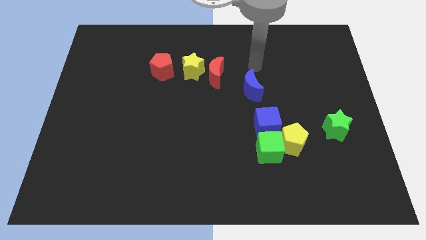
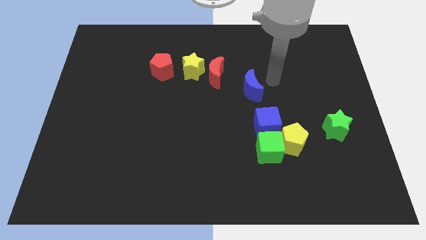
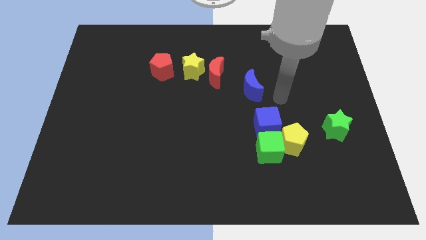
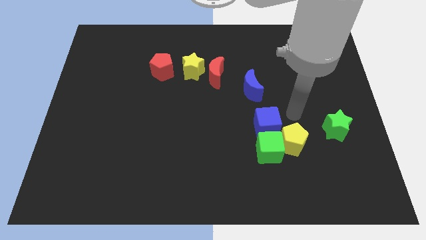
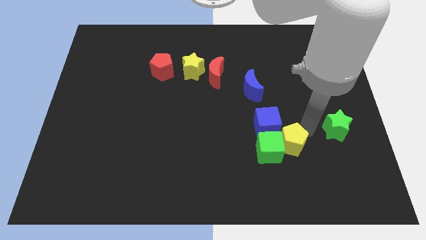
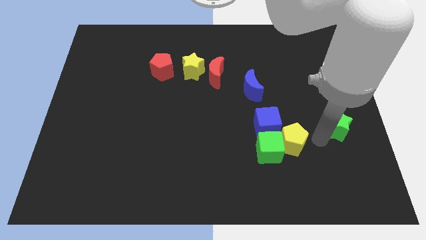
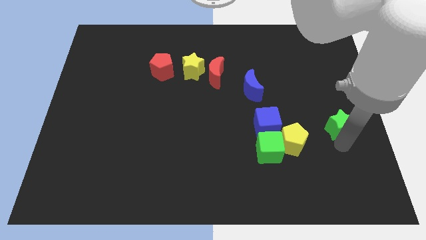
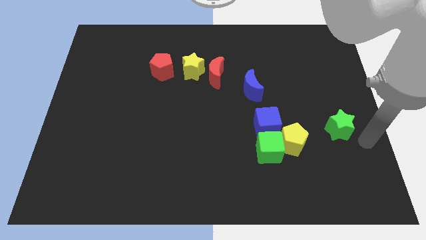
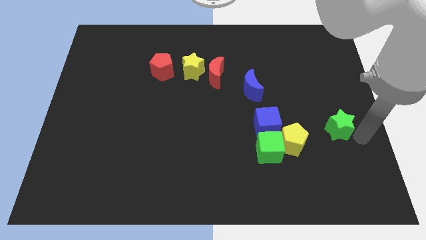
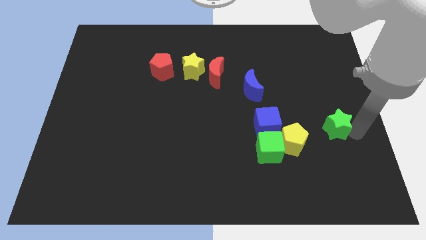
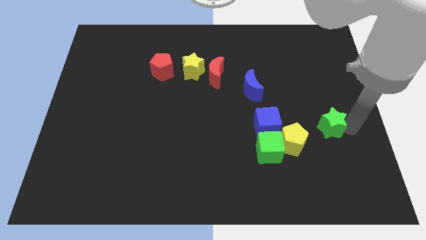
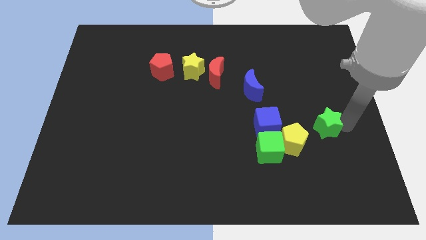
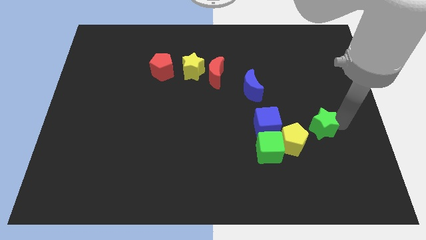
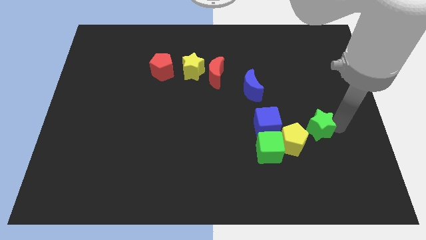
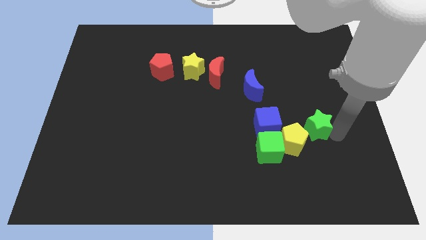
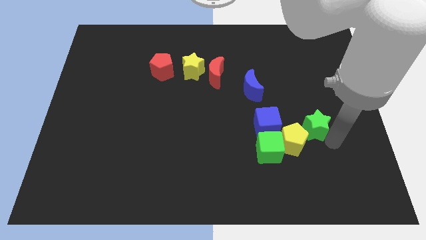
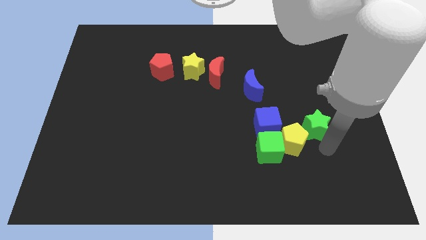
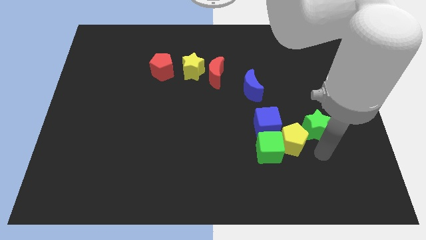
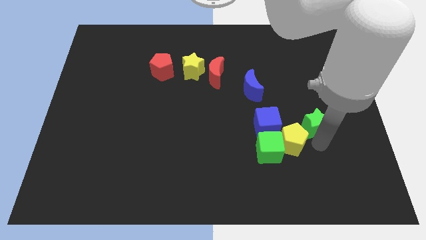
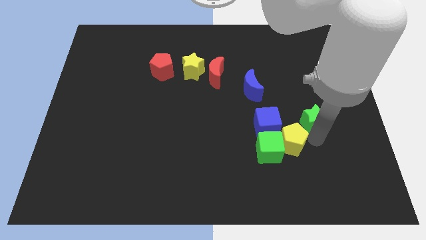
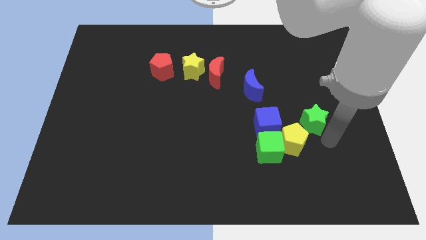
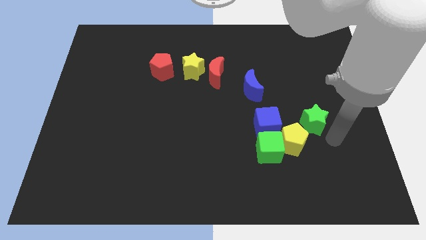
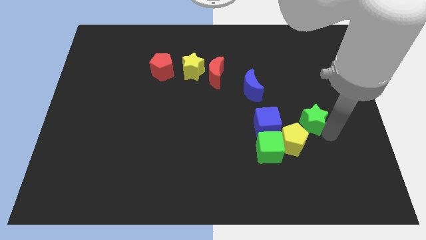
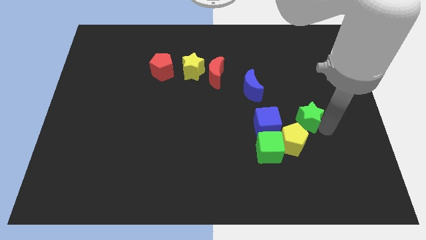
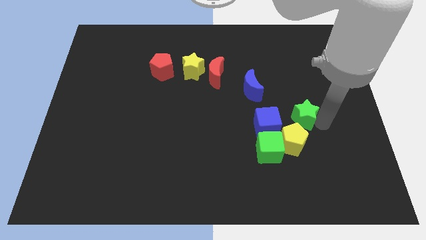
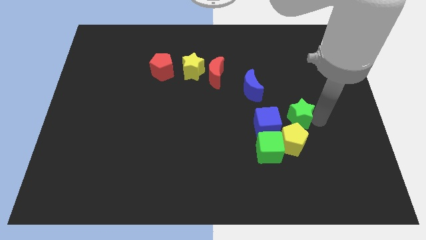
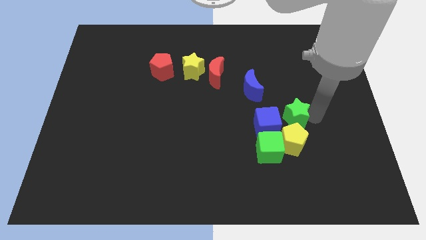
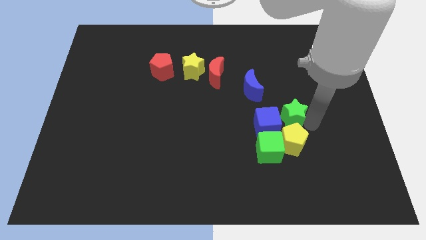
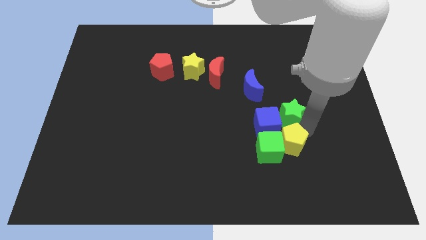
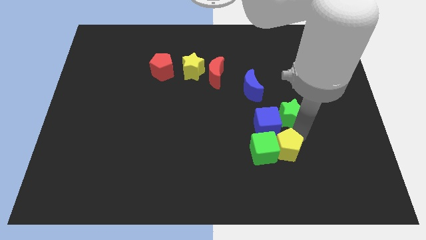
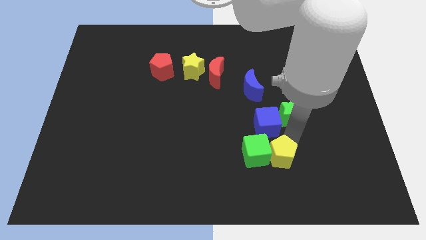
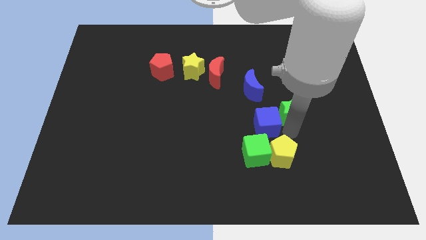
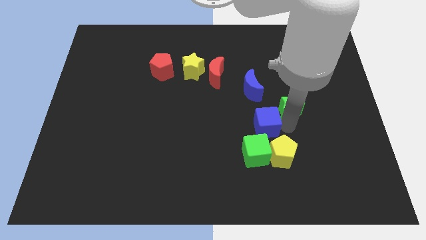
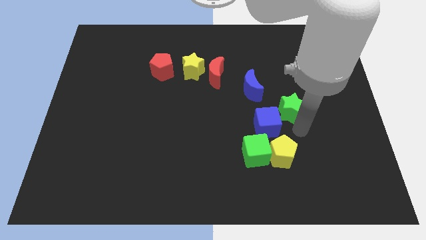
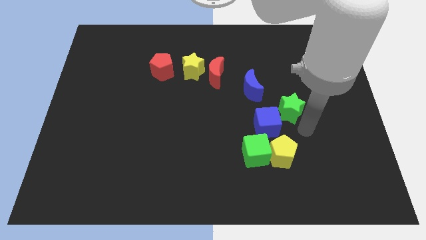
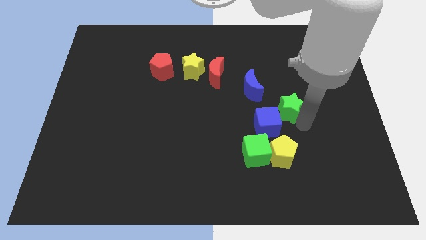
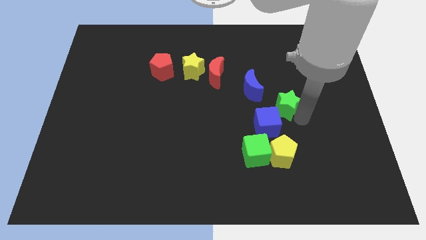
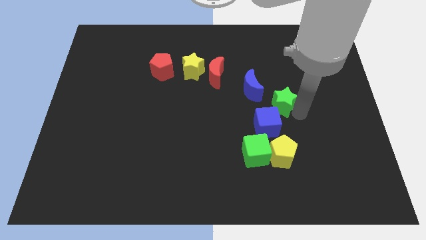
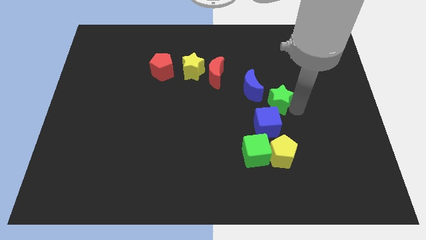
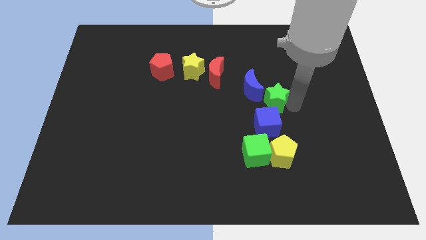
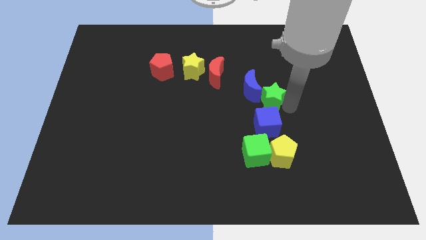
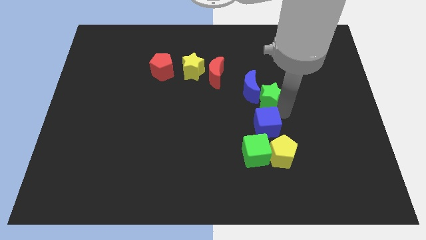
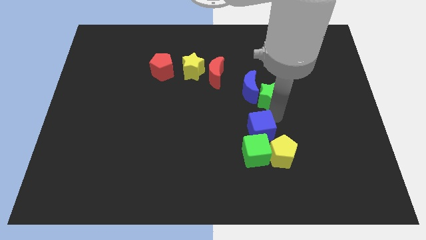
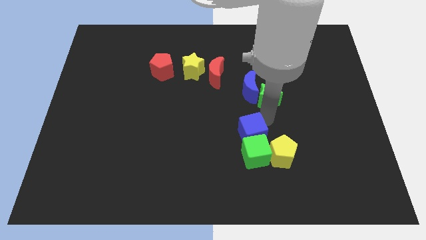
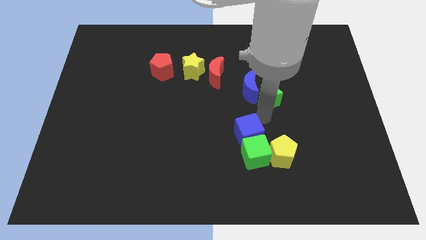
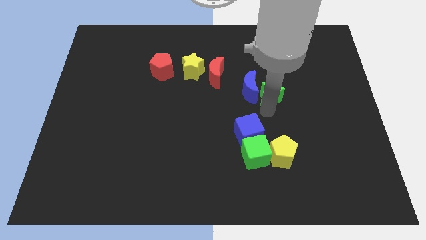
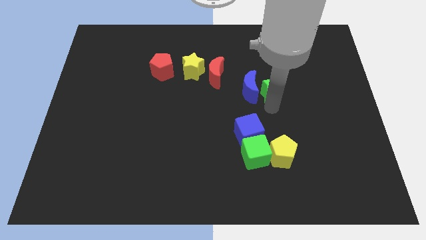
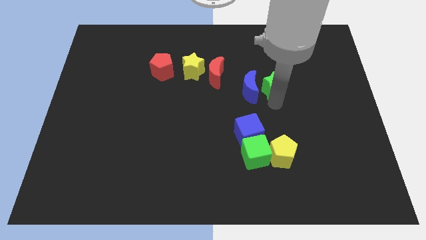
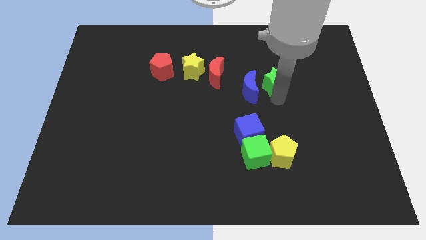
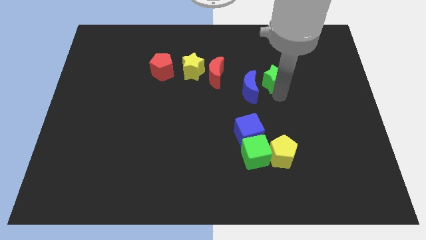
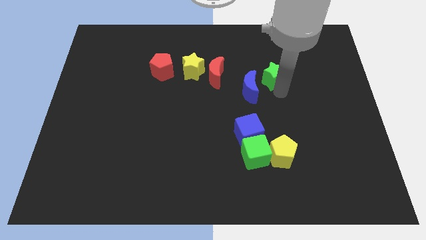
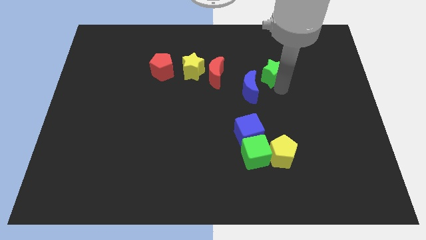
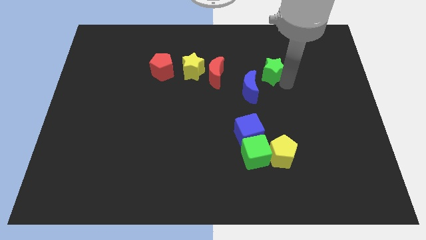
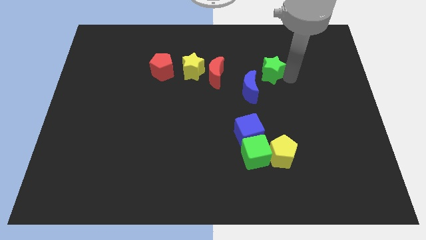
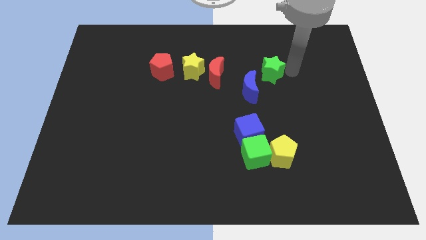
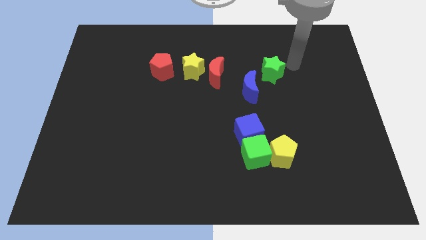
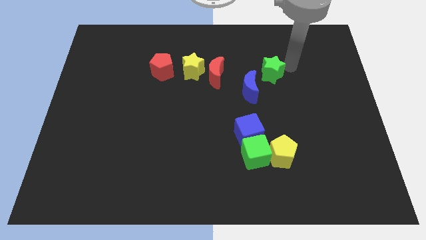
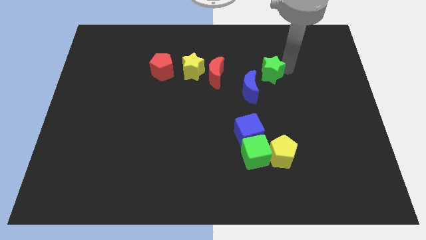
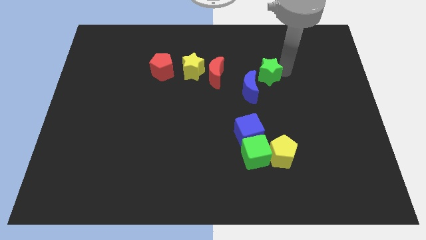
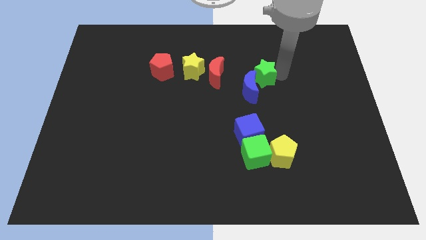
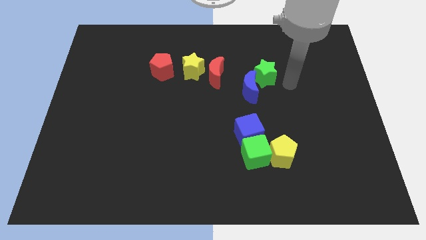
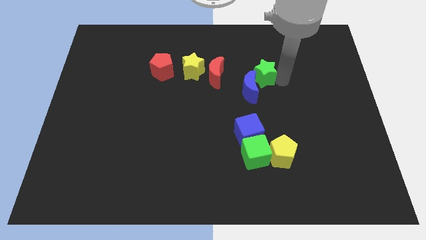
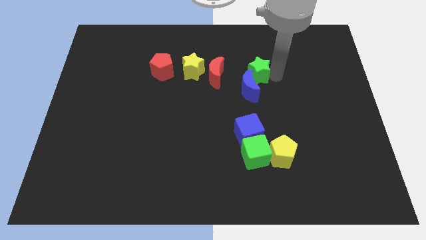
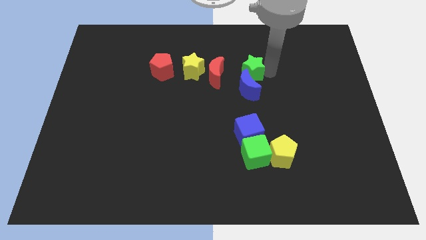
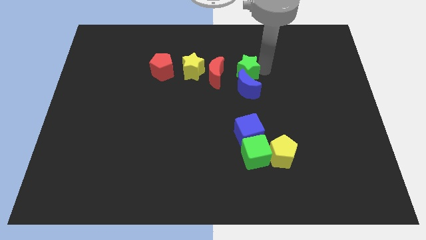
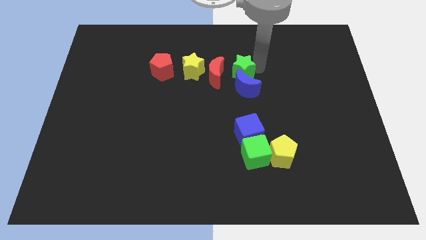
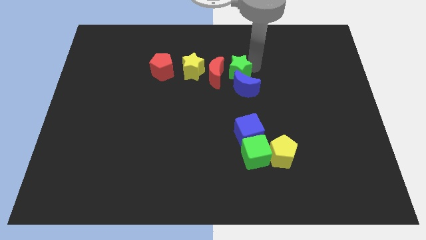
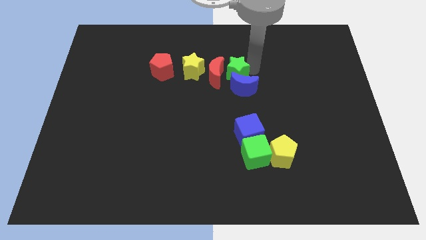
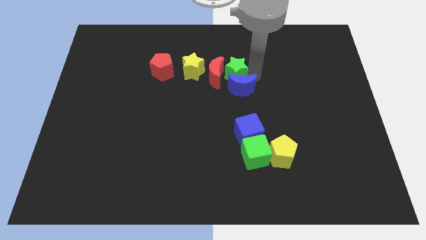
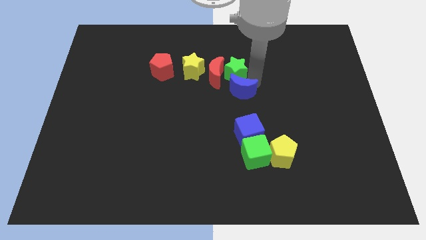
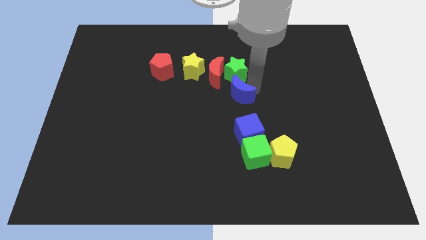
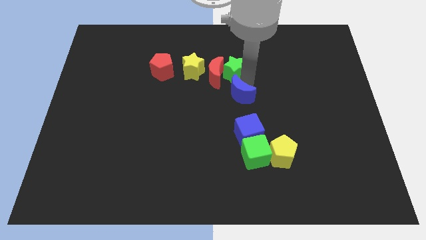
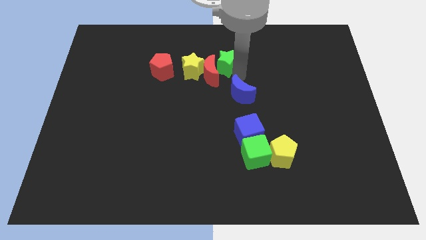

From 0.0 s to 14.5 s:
push the green star diagonally up and to the right of the yellow star
